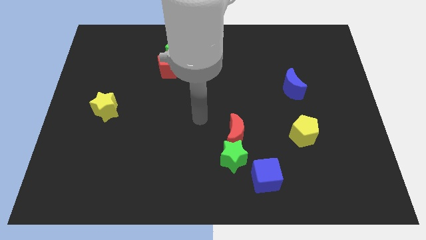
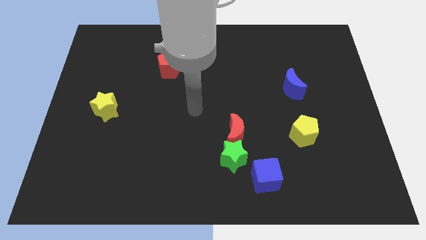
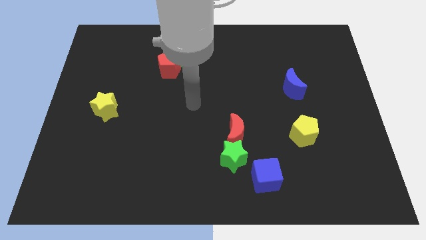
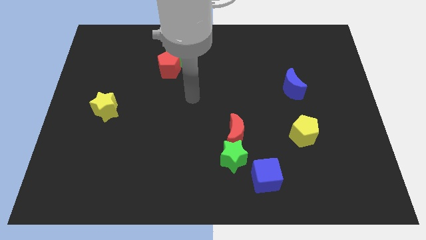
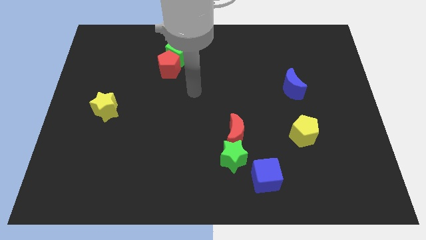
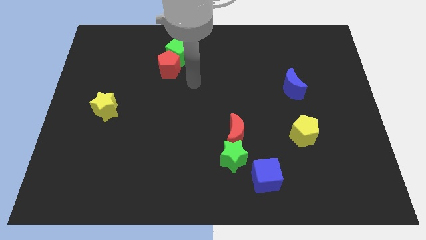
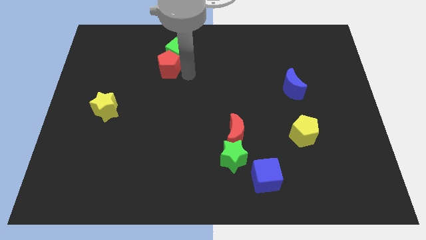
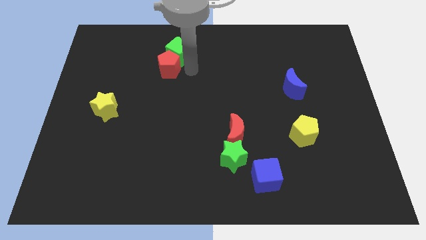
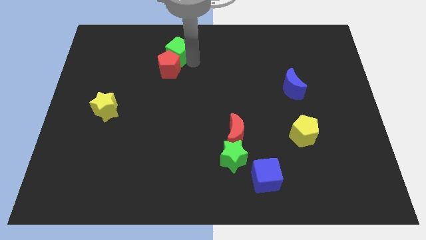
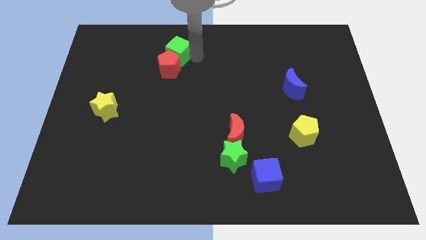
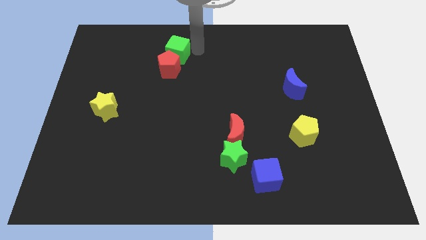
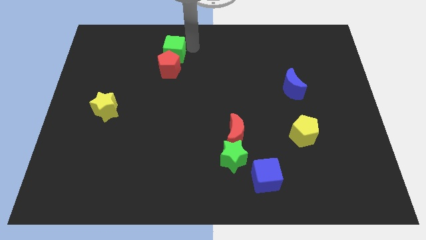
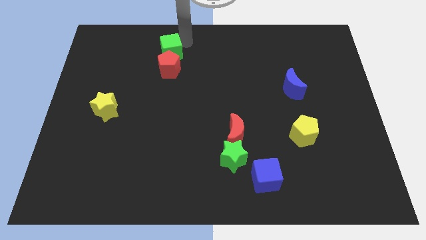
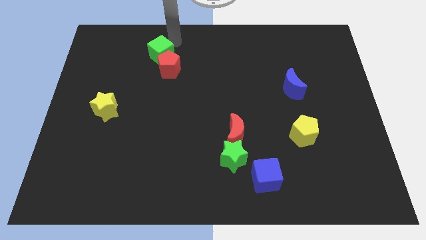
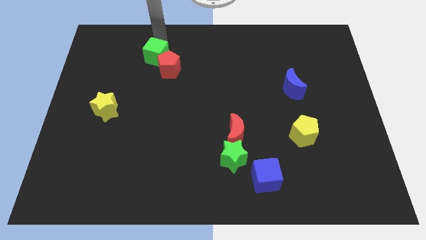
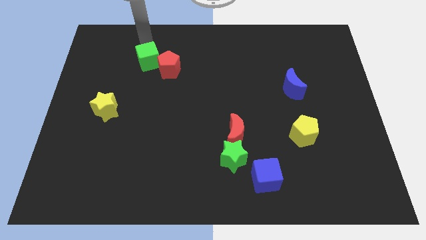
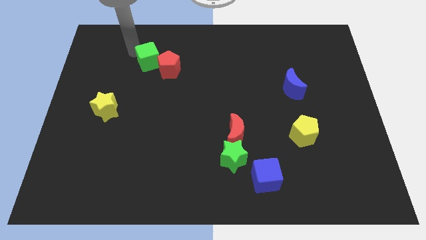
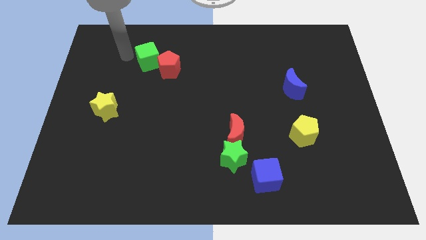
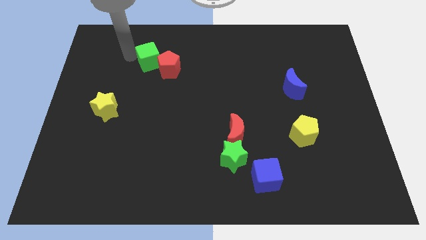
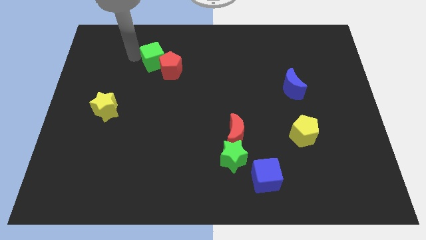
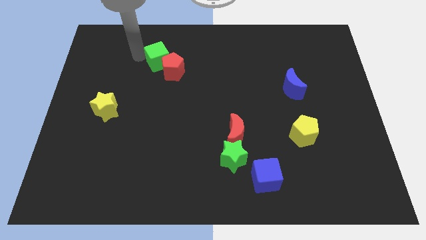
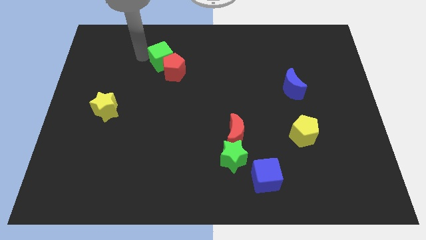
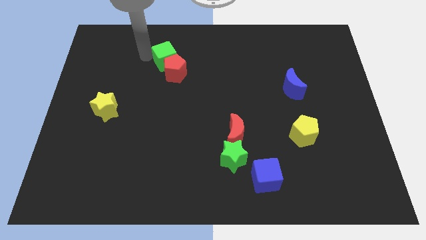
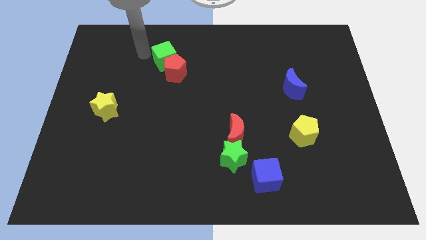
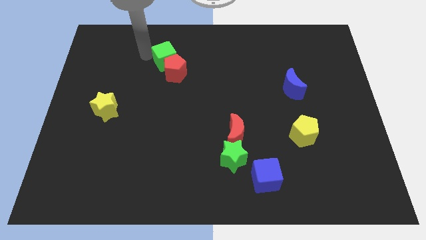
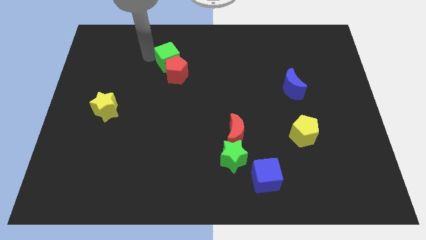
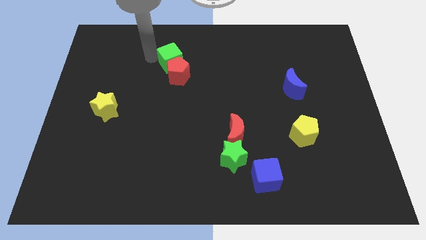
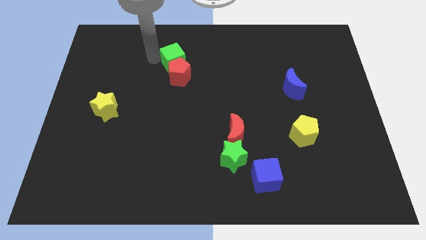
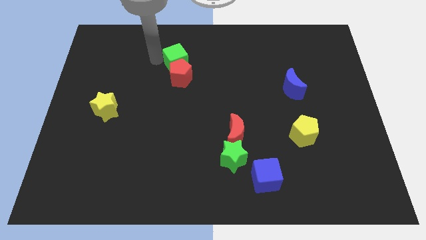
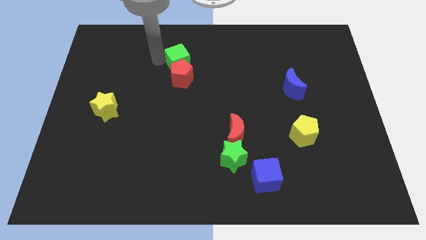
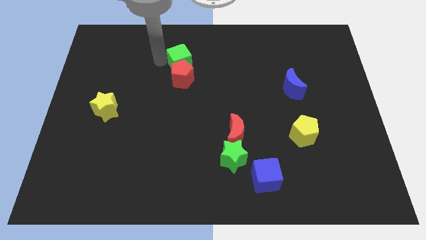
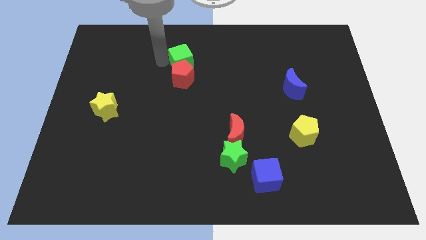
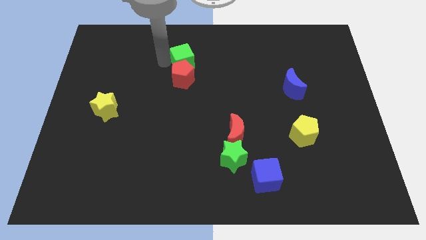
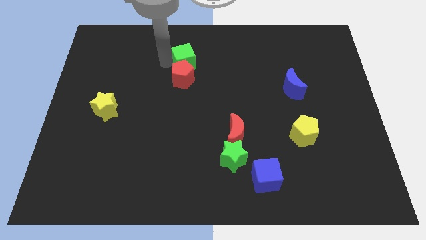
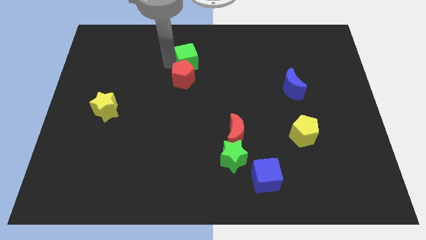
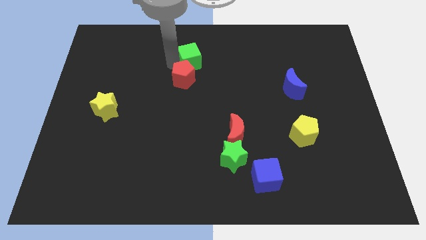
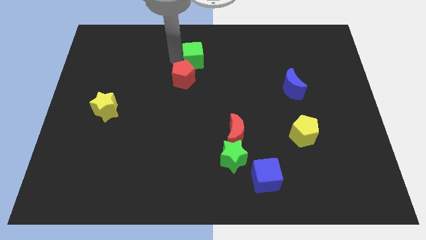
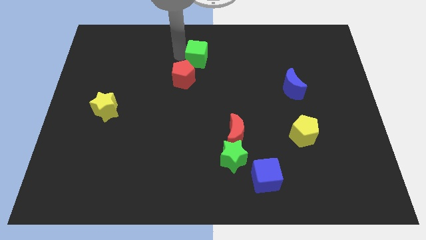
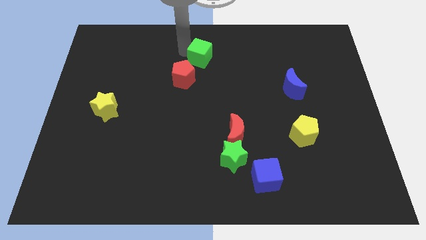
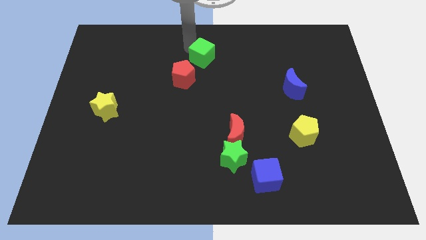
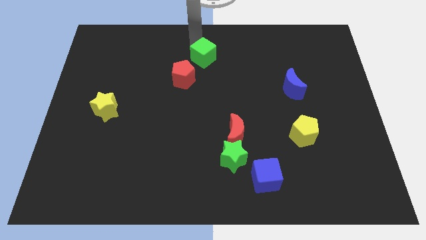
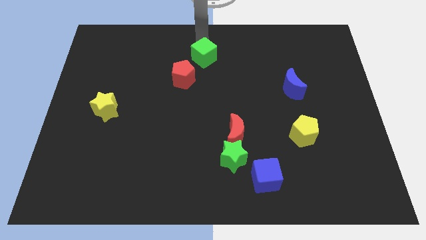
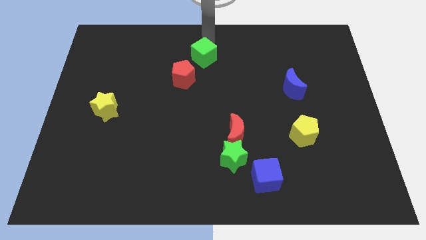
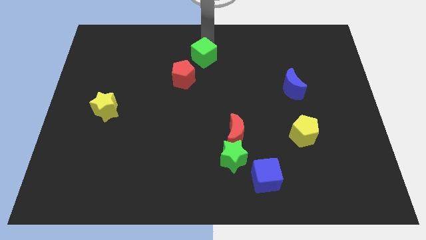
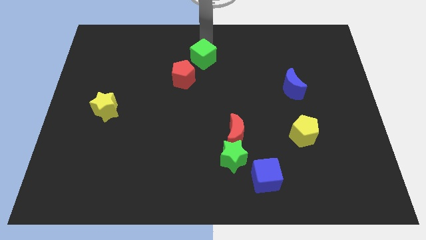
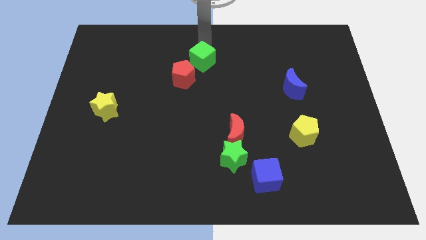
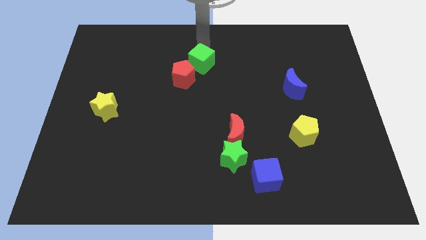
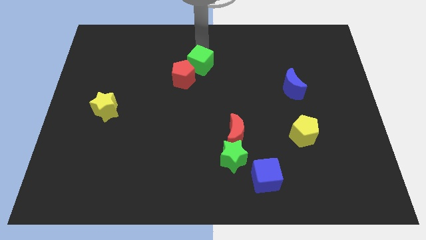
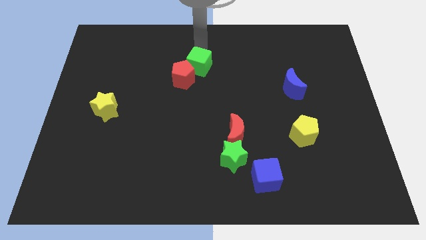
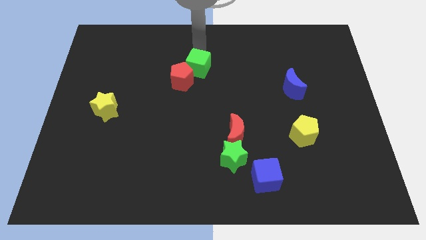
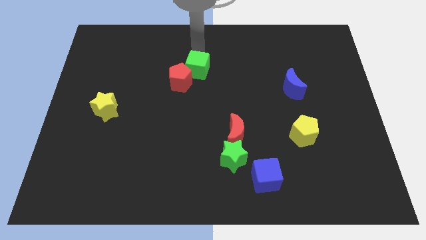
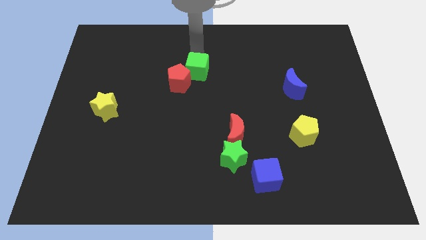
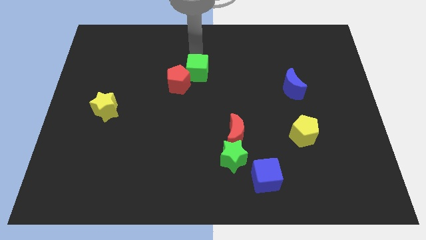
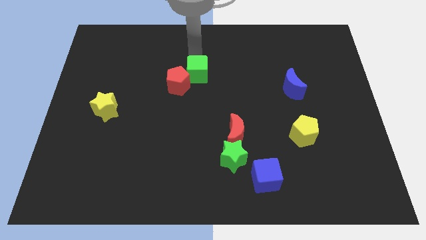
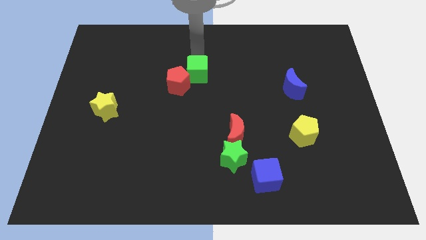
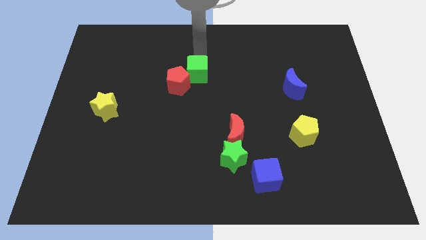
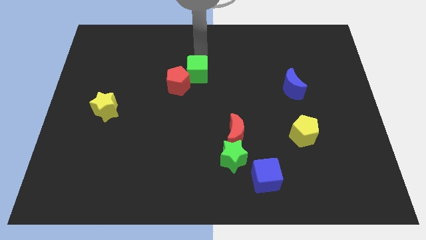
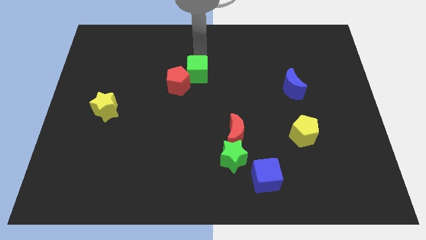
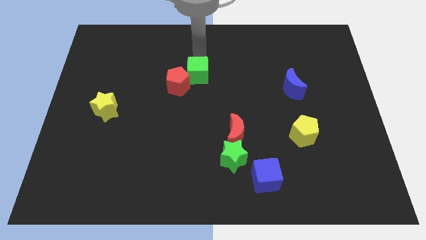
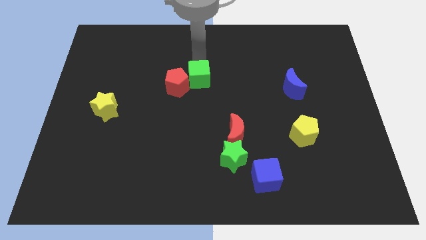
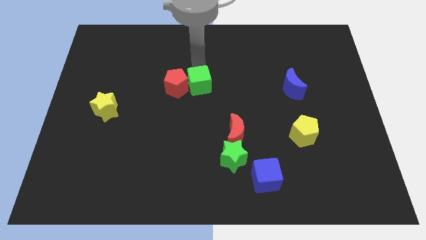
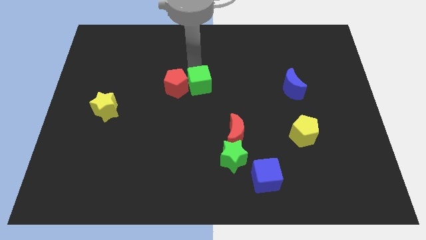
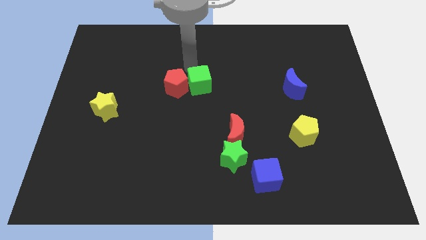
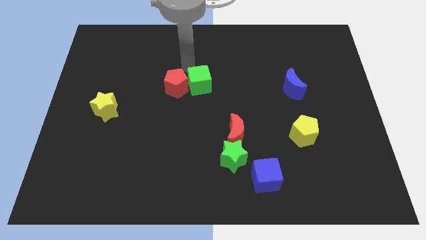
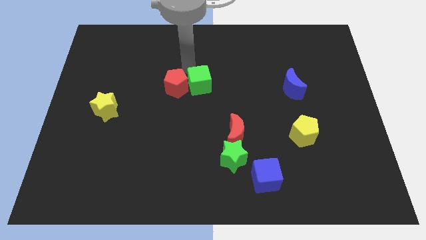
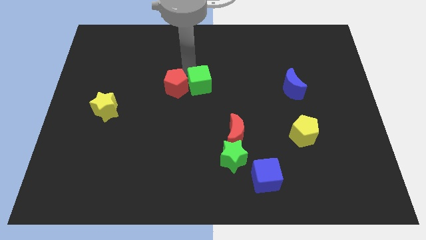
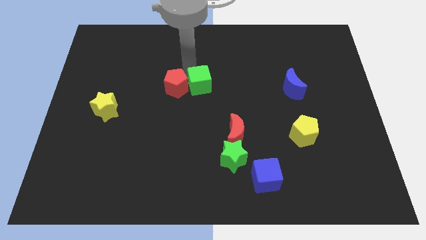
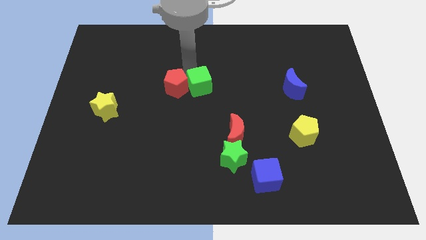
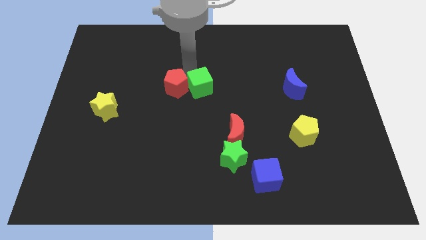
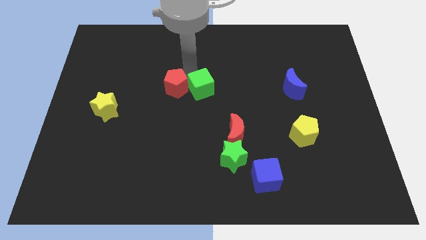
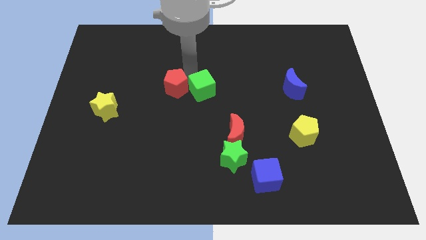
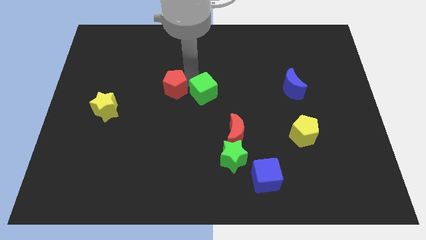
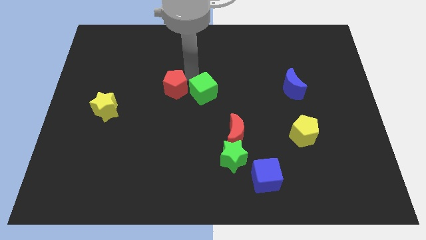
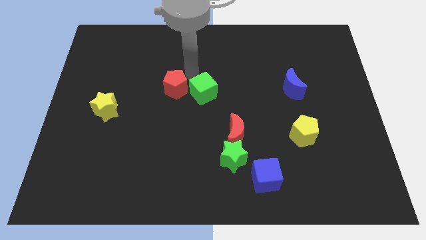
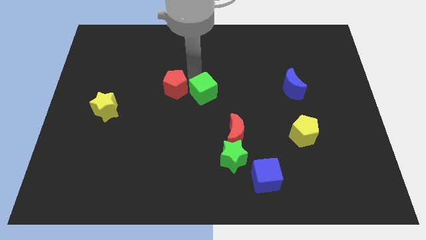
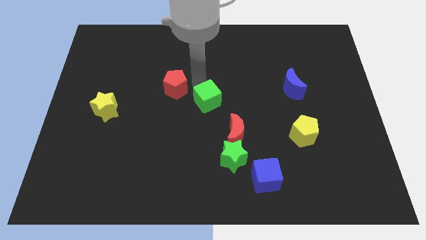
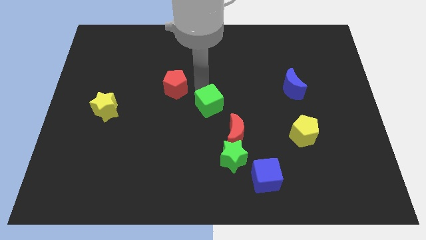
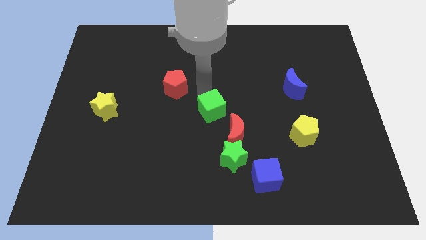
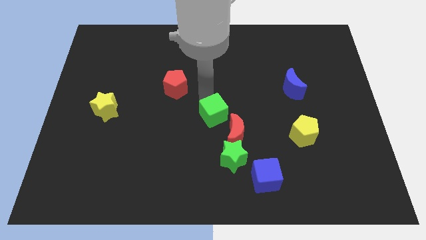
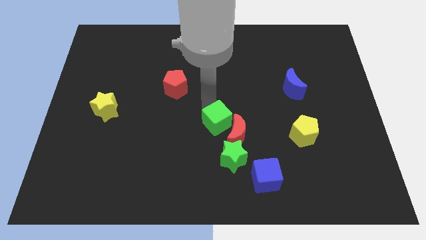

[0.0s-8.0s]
put the green cube close to the red moon
